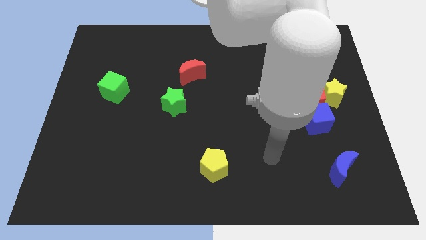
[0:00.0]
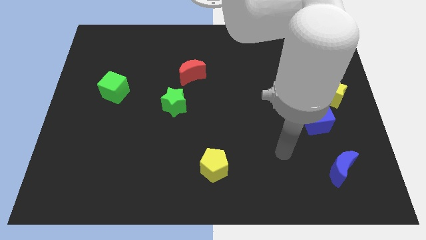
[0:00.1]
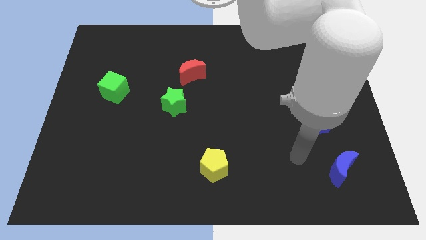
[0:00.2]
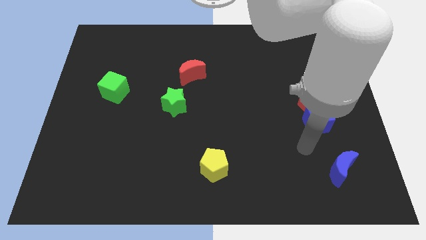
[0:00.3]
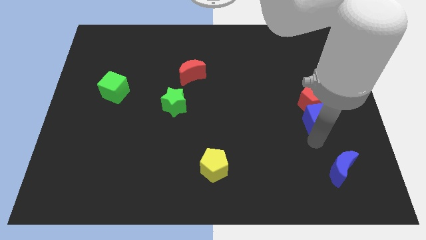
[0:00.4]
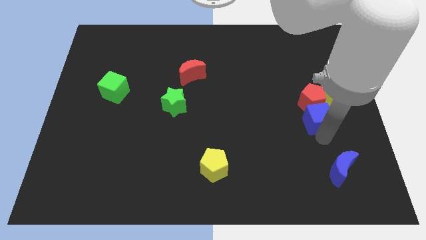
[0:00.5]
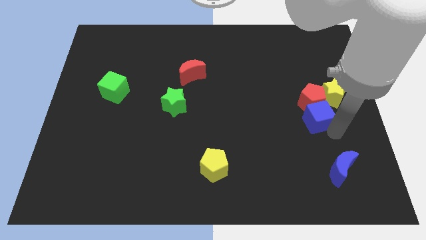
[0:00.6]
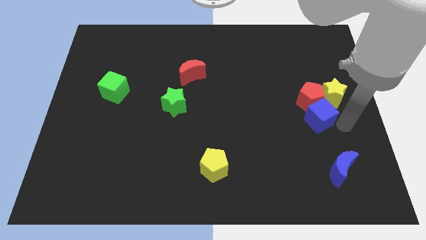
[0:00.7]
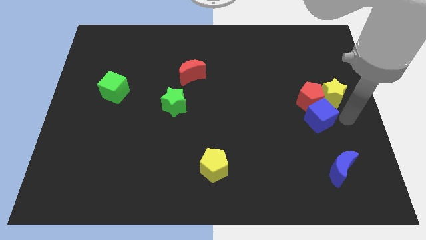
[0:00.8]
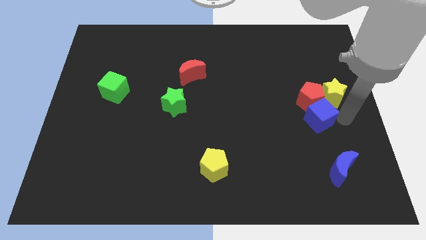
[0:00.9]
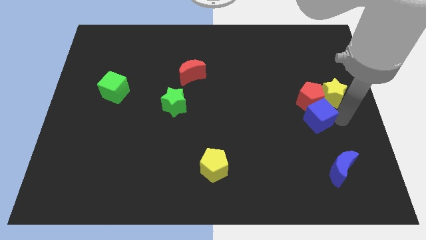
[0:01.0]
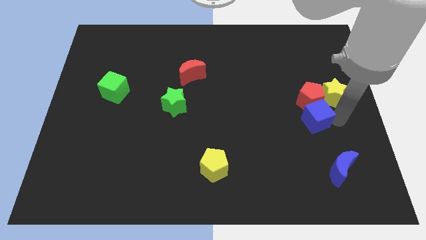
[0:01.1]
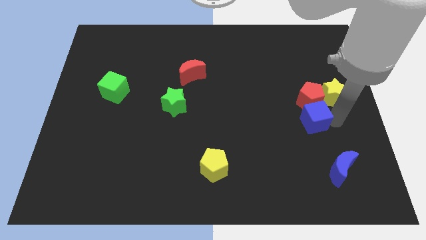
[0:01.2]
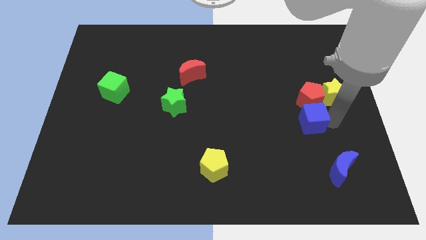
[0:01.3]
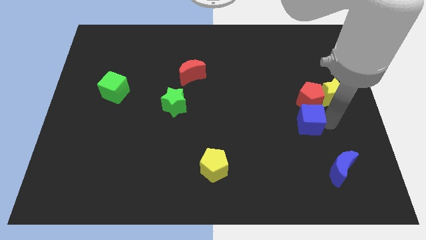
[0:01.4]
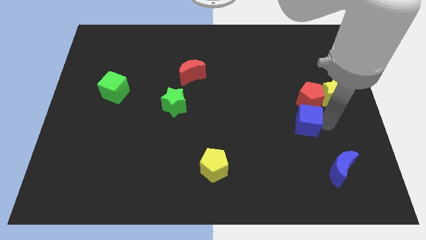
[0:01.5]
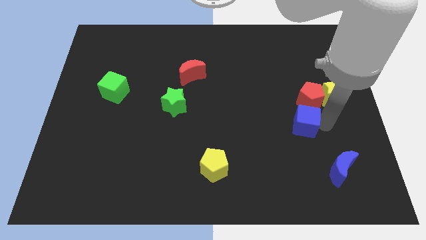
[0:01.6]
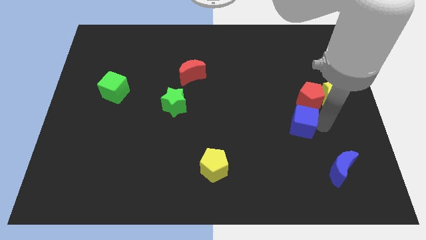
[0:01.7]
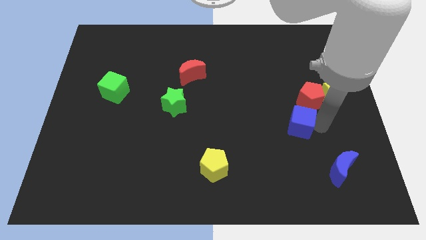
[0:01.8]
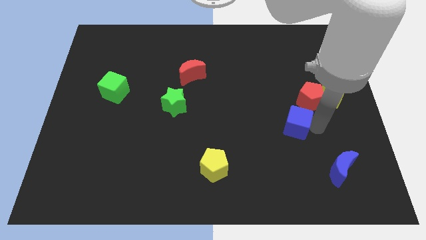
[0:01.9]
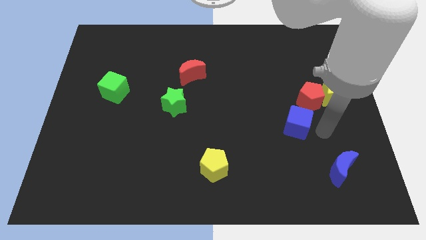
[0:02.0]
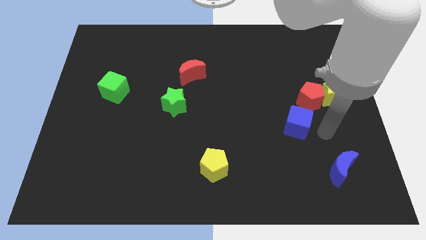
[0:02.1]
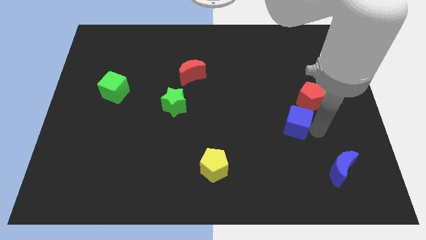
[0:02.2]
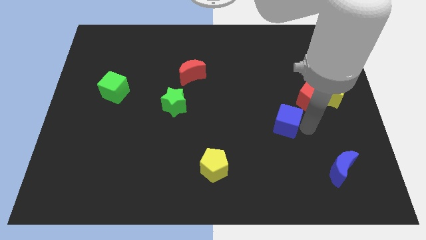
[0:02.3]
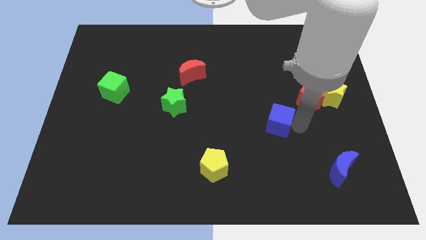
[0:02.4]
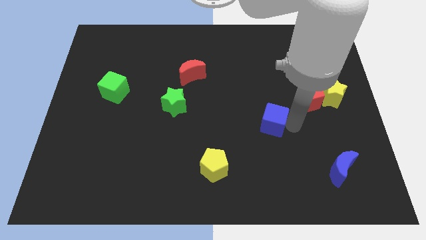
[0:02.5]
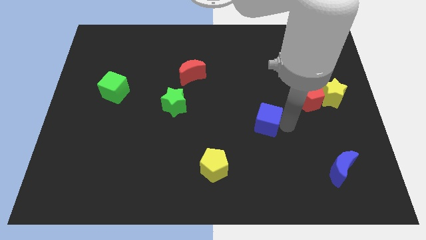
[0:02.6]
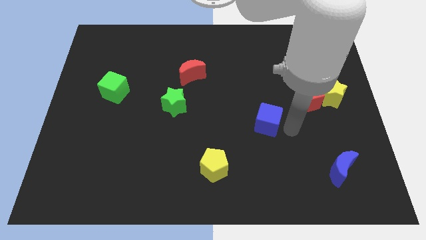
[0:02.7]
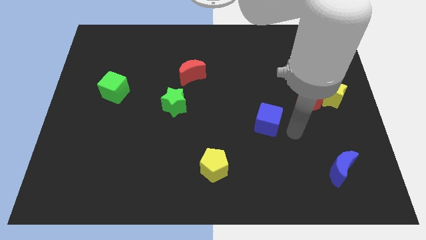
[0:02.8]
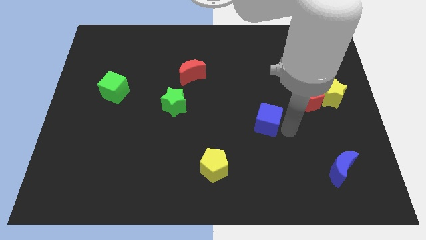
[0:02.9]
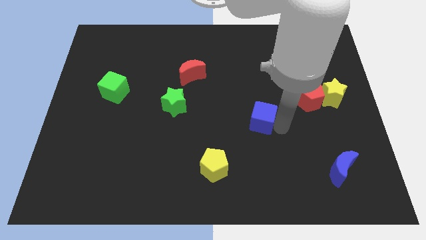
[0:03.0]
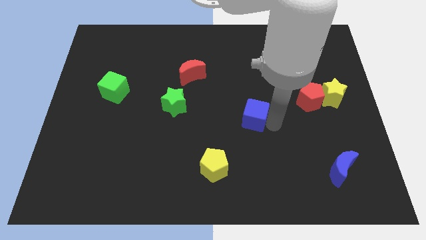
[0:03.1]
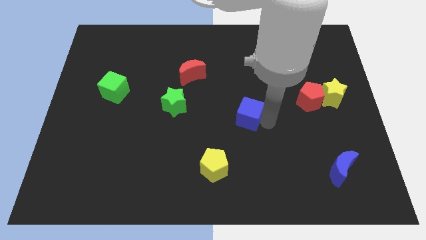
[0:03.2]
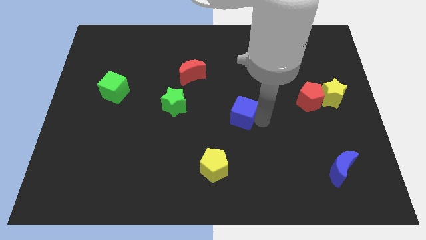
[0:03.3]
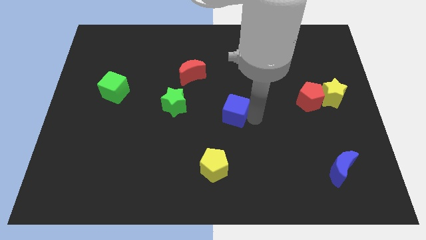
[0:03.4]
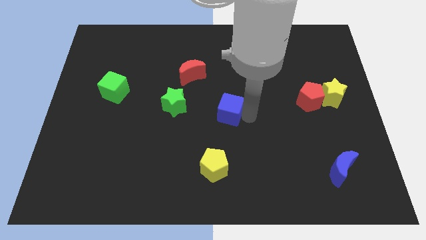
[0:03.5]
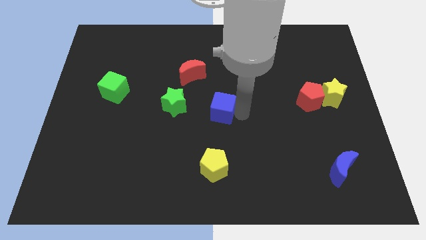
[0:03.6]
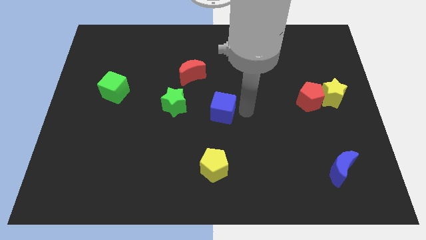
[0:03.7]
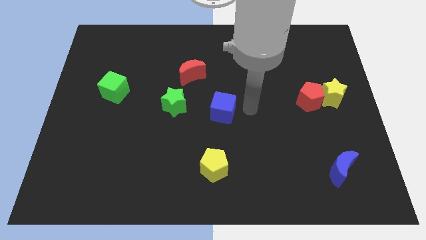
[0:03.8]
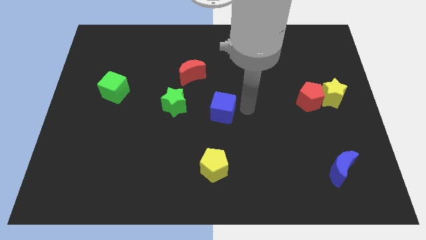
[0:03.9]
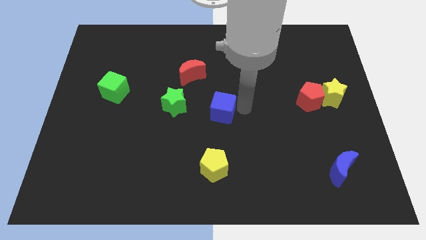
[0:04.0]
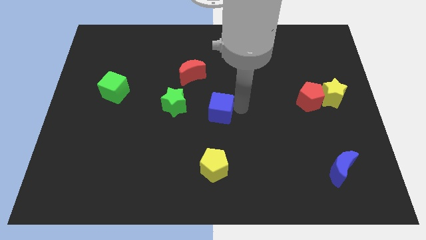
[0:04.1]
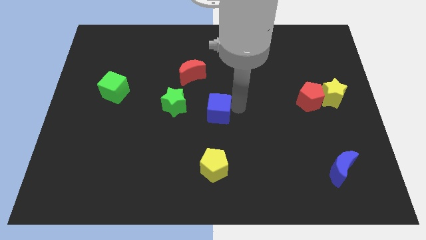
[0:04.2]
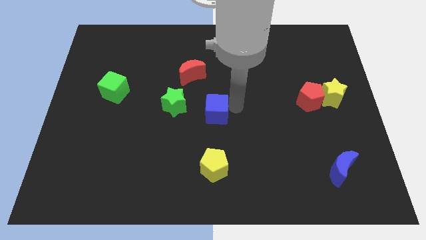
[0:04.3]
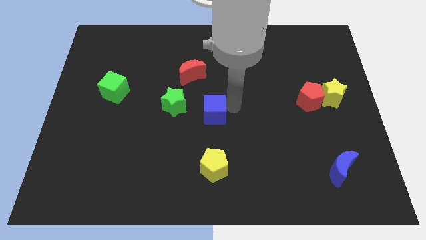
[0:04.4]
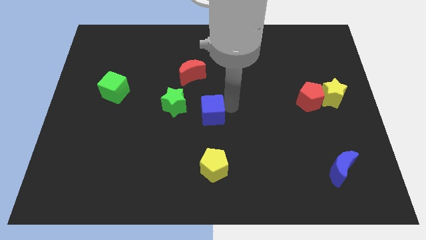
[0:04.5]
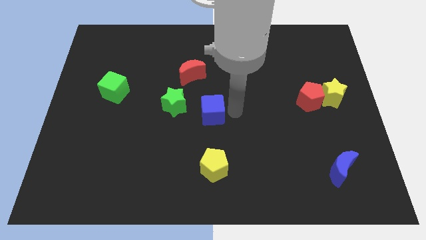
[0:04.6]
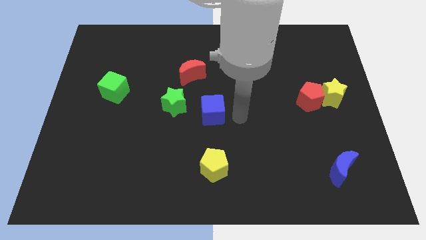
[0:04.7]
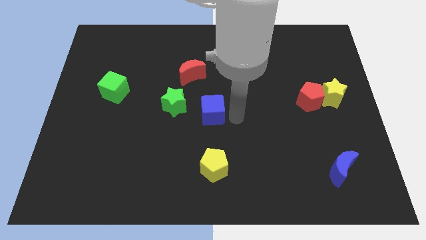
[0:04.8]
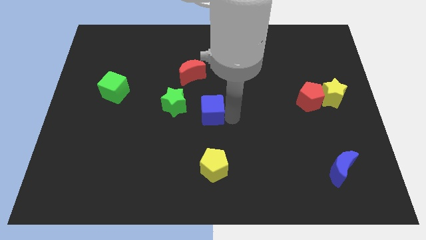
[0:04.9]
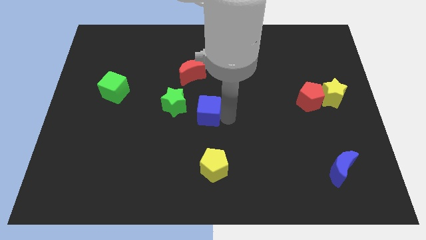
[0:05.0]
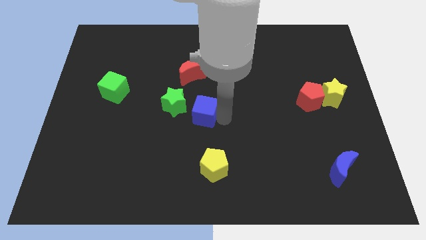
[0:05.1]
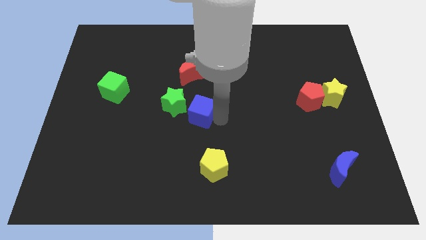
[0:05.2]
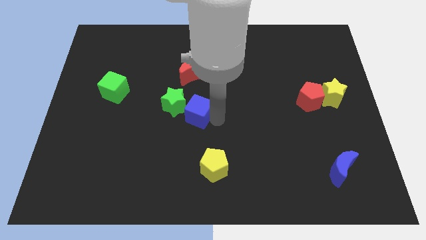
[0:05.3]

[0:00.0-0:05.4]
push the blue cube to the green star

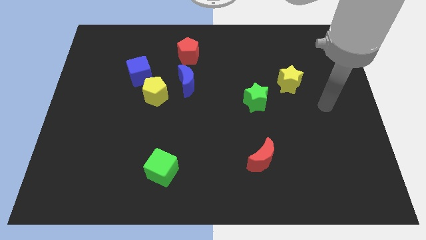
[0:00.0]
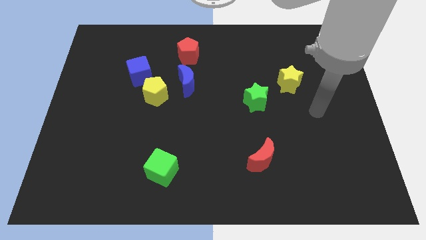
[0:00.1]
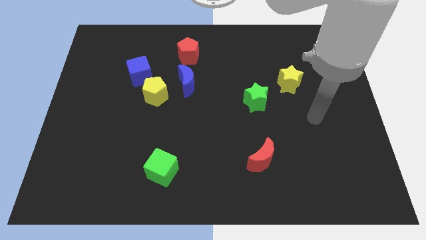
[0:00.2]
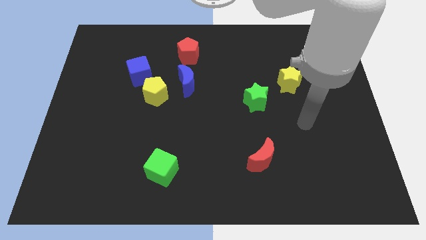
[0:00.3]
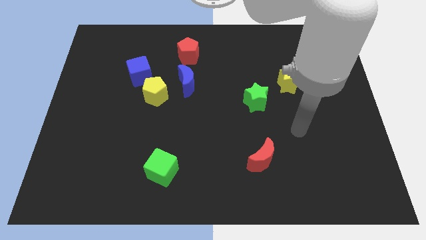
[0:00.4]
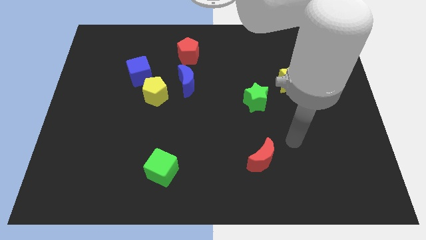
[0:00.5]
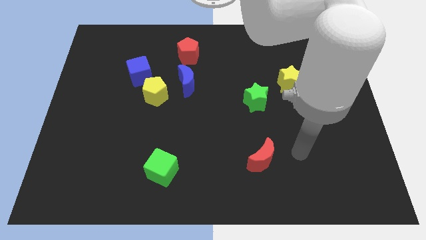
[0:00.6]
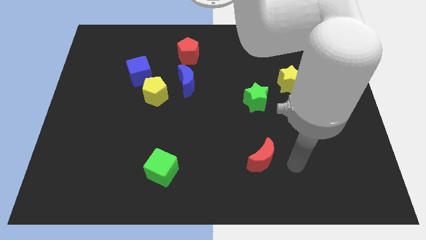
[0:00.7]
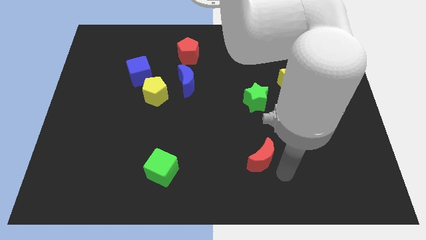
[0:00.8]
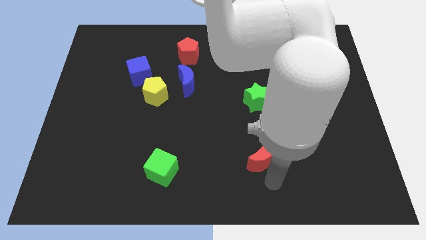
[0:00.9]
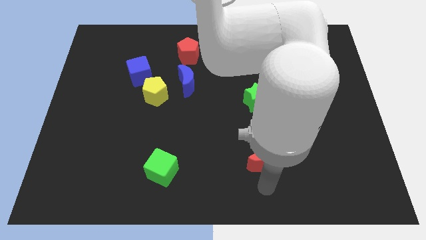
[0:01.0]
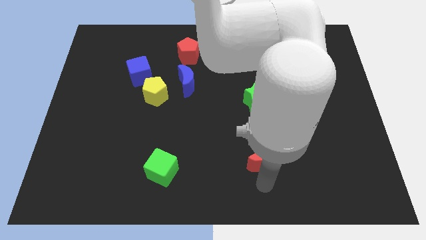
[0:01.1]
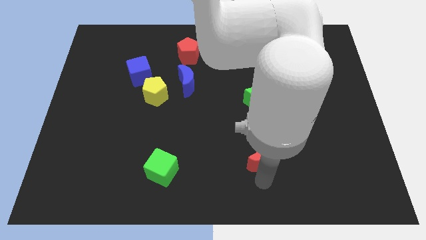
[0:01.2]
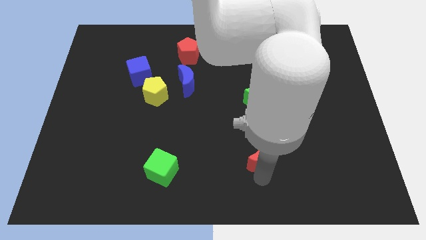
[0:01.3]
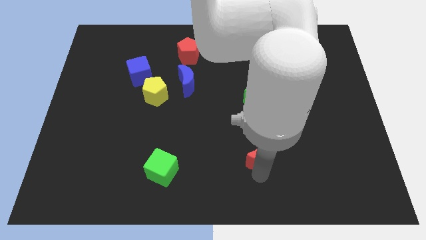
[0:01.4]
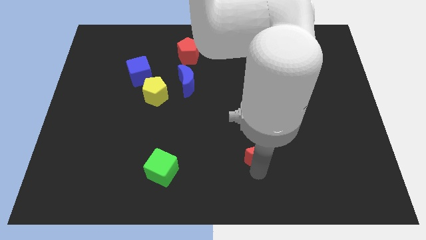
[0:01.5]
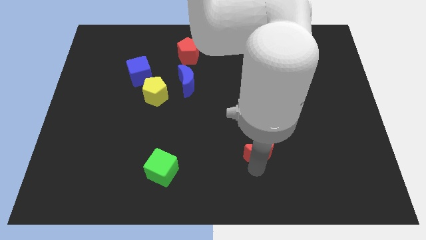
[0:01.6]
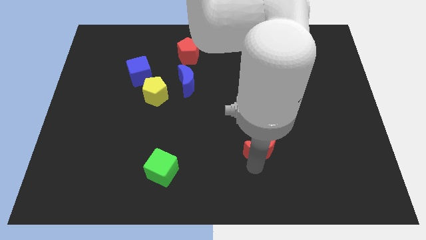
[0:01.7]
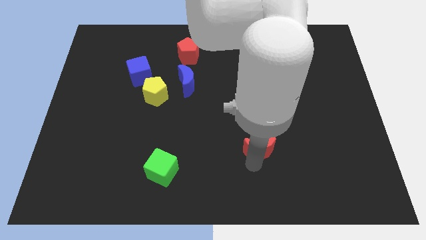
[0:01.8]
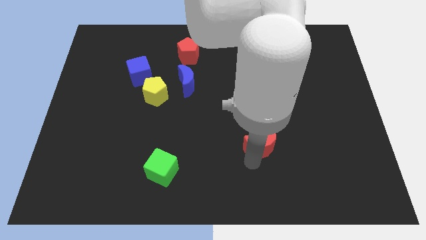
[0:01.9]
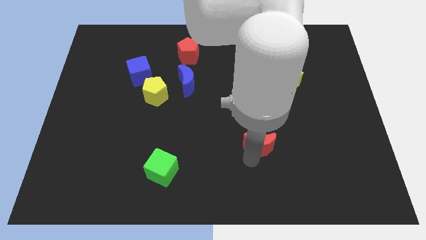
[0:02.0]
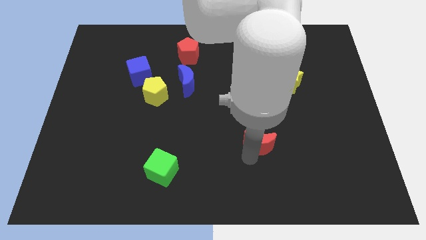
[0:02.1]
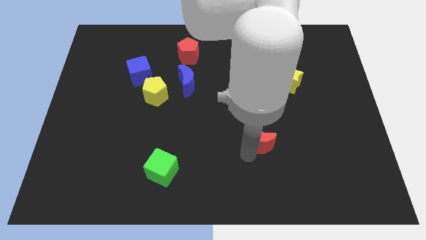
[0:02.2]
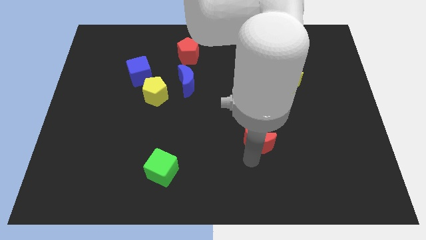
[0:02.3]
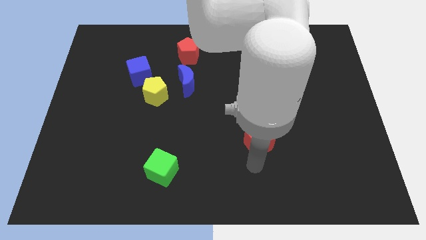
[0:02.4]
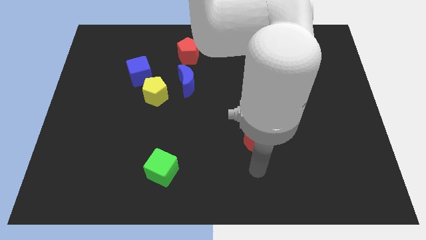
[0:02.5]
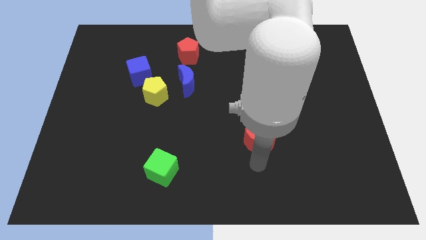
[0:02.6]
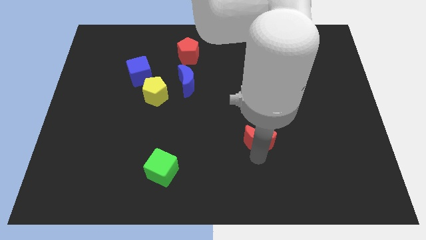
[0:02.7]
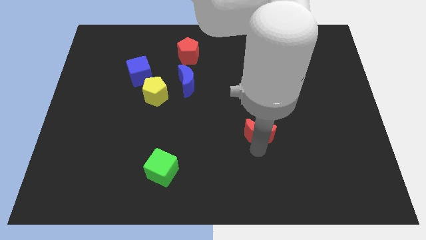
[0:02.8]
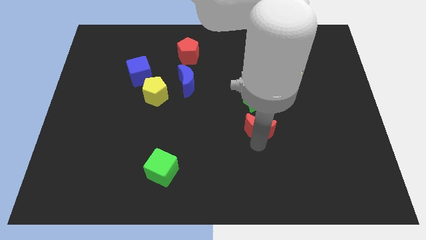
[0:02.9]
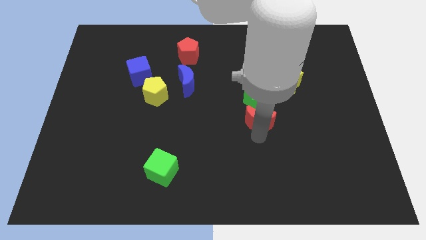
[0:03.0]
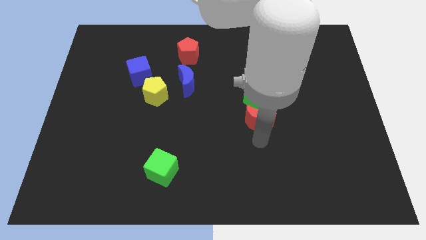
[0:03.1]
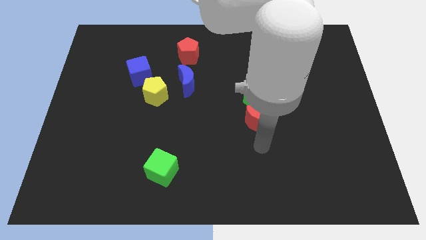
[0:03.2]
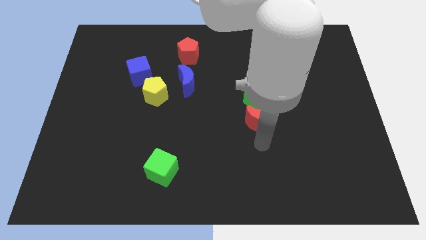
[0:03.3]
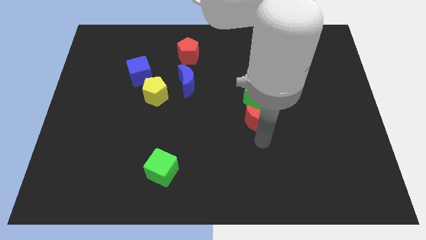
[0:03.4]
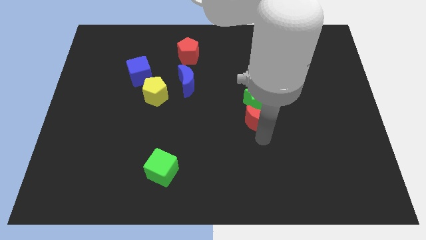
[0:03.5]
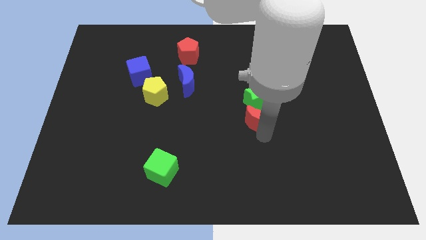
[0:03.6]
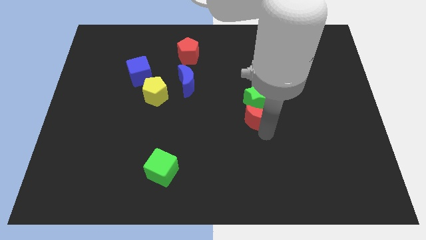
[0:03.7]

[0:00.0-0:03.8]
put the red moon to the green star
